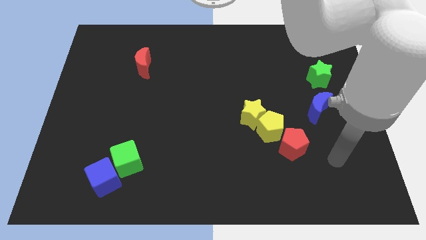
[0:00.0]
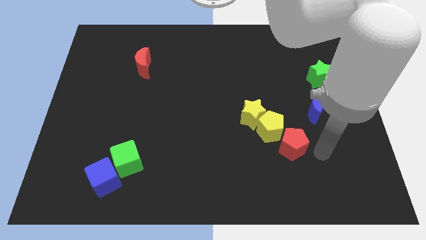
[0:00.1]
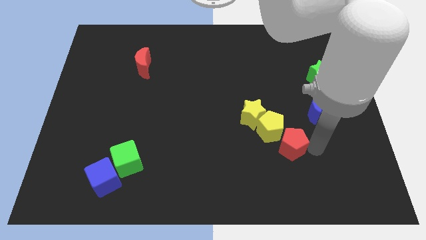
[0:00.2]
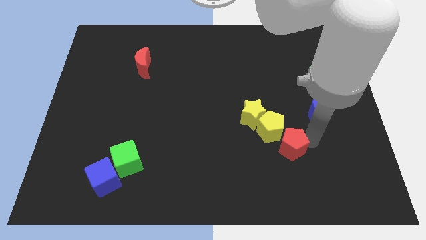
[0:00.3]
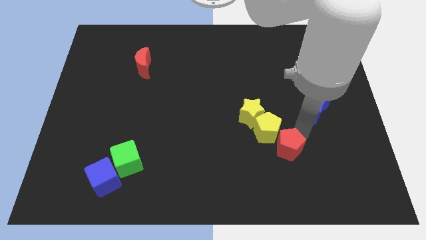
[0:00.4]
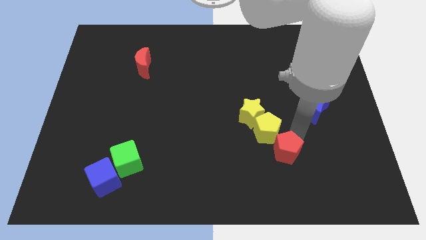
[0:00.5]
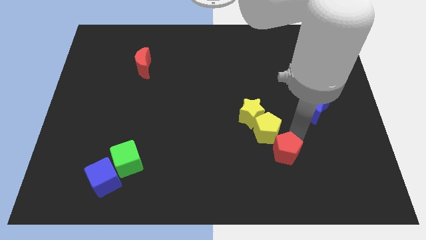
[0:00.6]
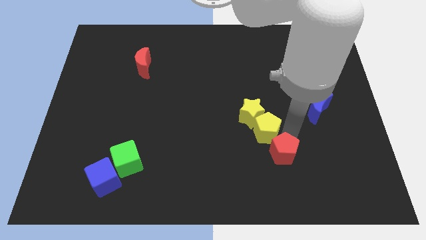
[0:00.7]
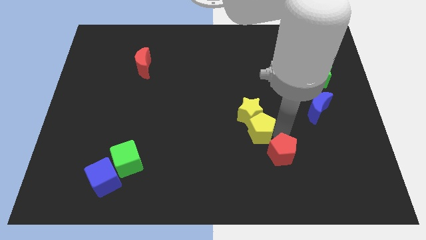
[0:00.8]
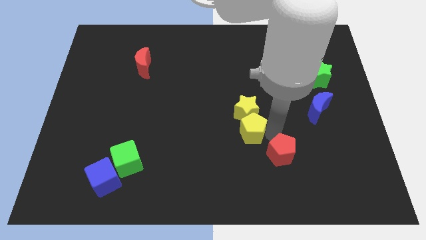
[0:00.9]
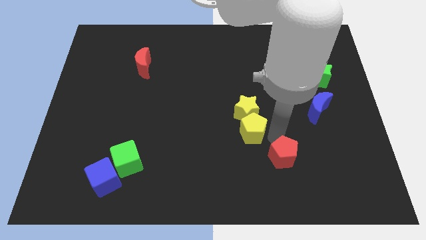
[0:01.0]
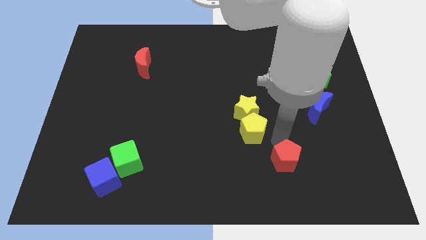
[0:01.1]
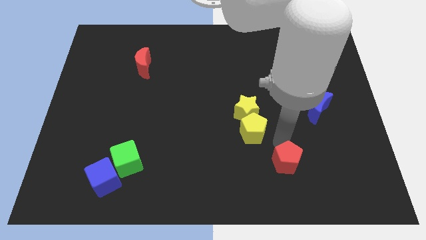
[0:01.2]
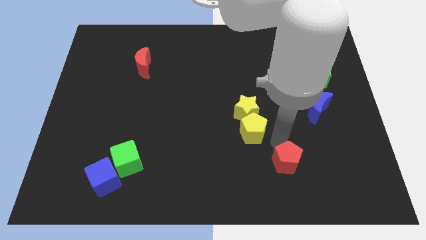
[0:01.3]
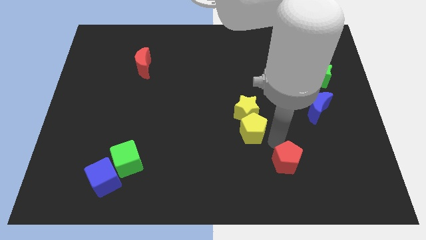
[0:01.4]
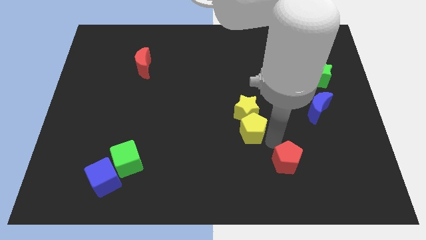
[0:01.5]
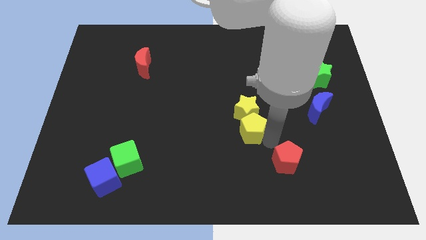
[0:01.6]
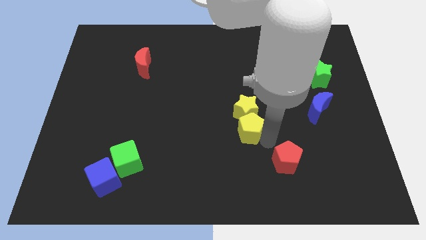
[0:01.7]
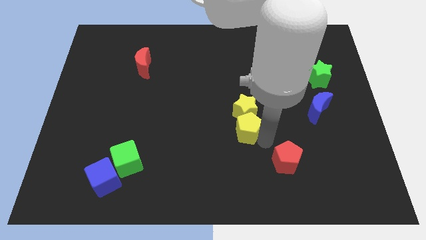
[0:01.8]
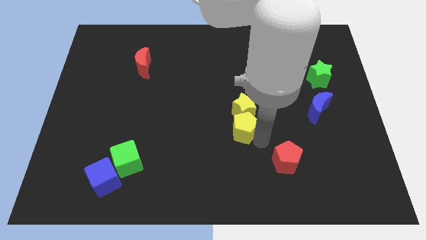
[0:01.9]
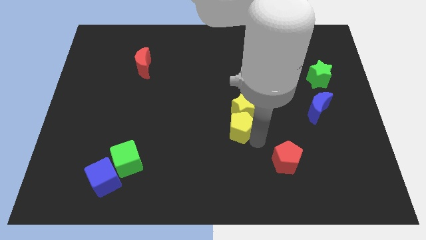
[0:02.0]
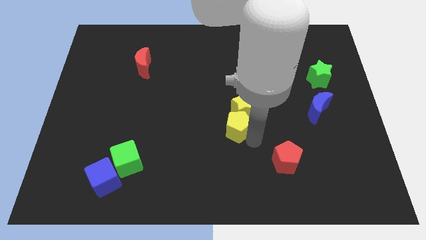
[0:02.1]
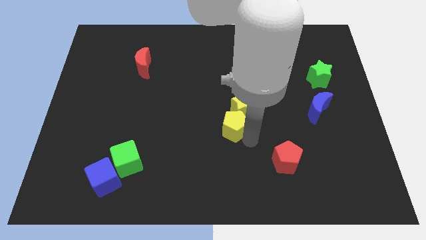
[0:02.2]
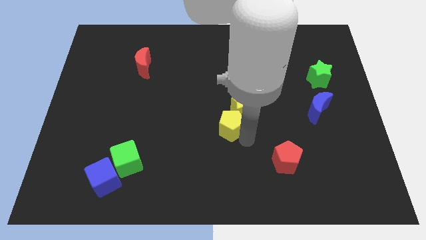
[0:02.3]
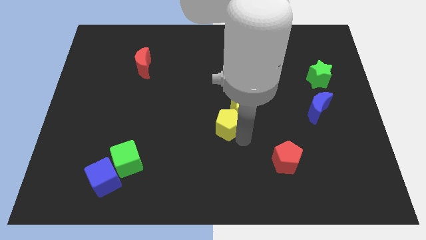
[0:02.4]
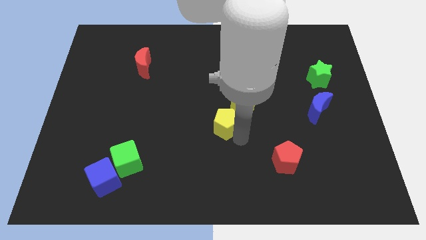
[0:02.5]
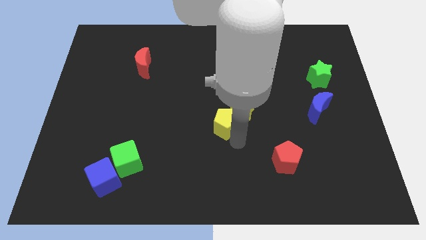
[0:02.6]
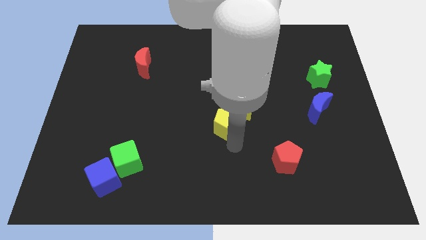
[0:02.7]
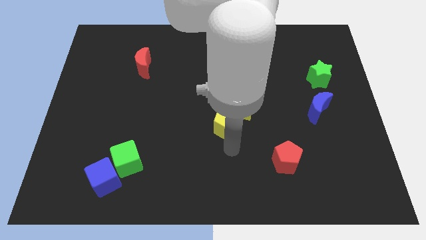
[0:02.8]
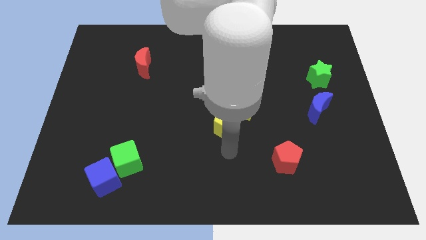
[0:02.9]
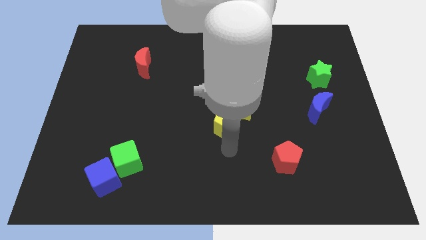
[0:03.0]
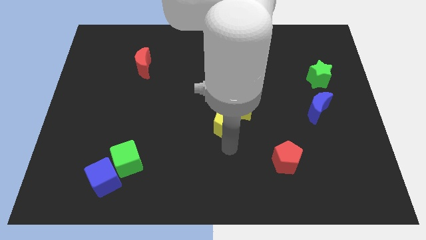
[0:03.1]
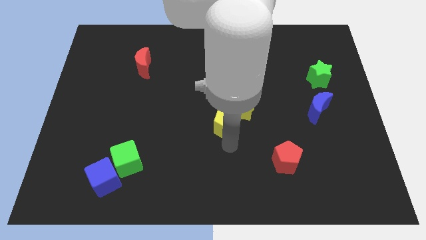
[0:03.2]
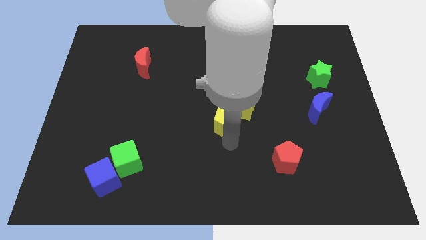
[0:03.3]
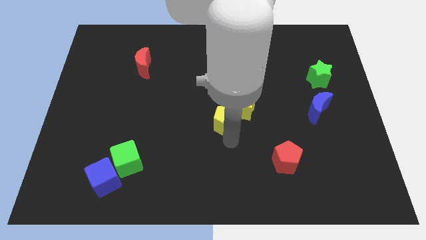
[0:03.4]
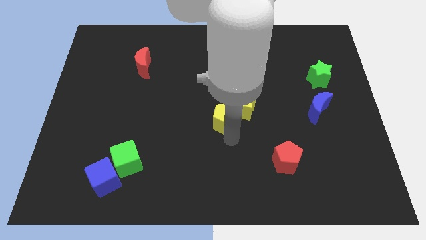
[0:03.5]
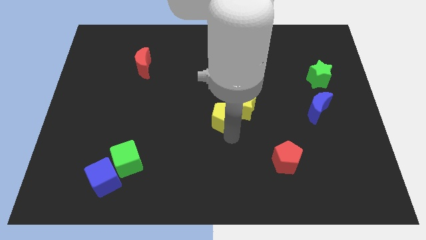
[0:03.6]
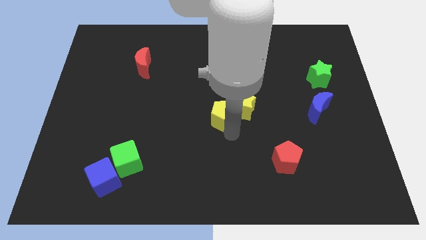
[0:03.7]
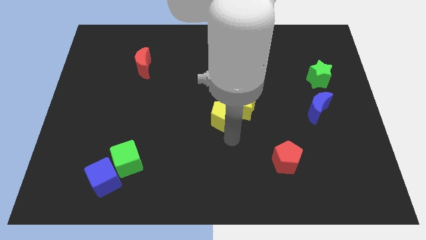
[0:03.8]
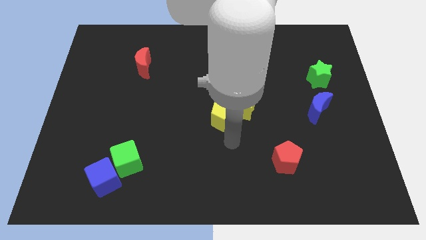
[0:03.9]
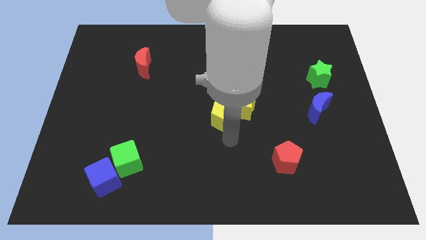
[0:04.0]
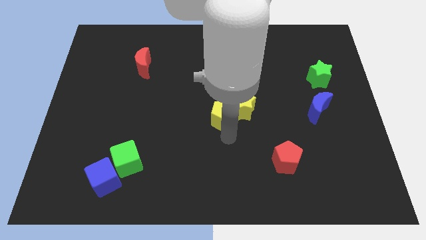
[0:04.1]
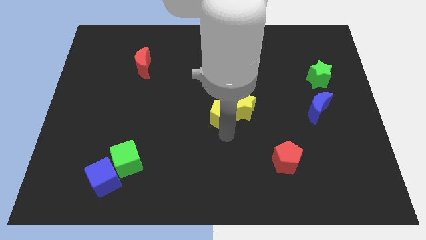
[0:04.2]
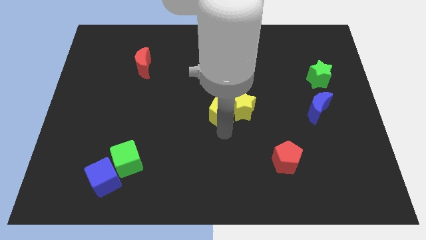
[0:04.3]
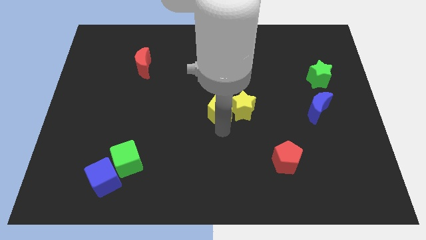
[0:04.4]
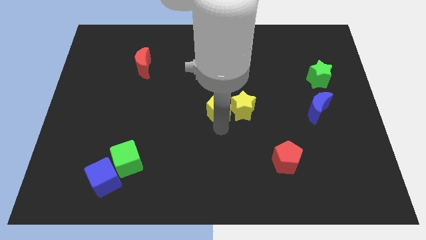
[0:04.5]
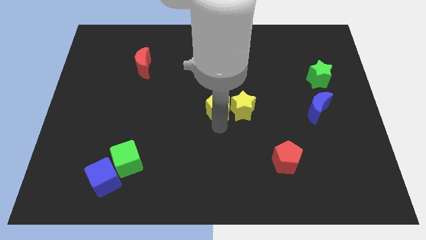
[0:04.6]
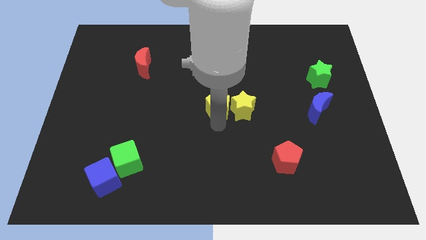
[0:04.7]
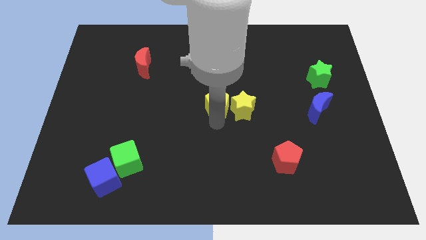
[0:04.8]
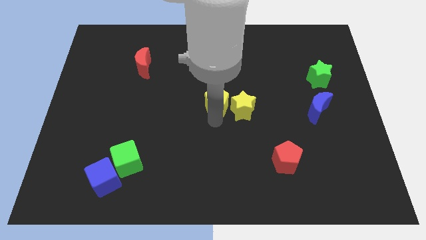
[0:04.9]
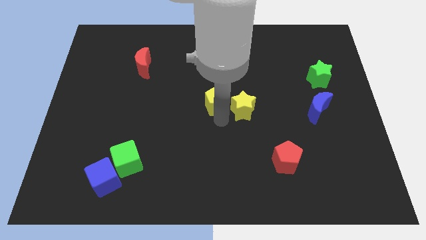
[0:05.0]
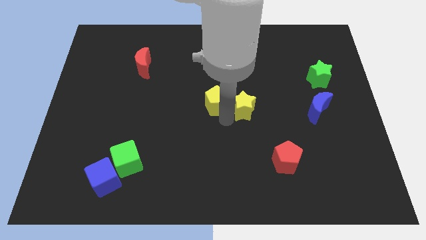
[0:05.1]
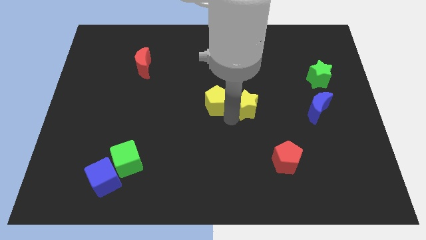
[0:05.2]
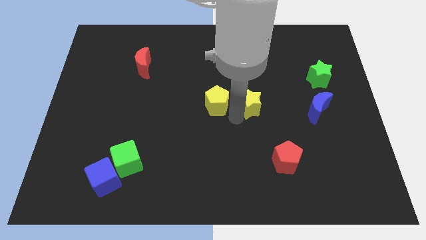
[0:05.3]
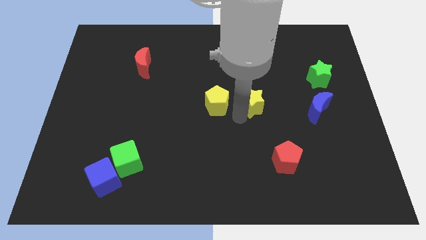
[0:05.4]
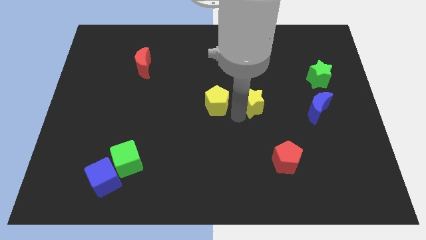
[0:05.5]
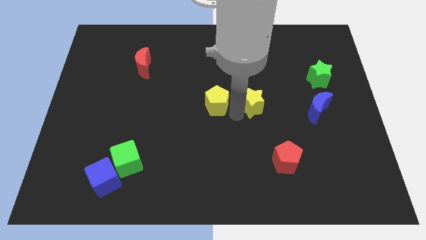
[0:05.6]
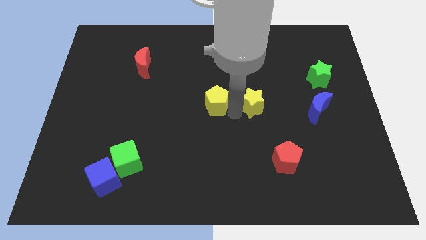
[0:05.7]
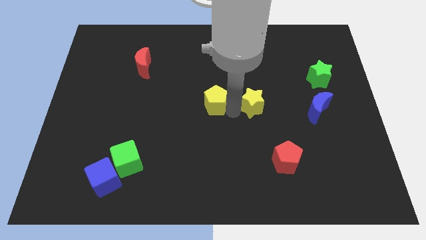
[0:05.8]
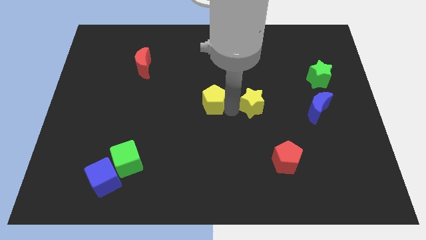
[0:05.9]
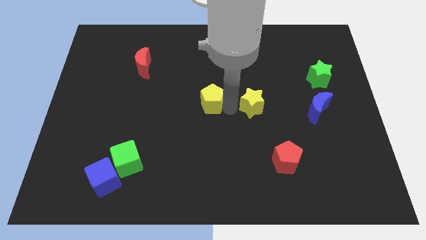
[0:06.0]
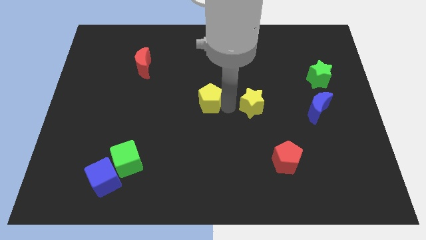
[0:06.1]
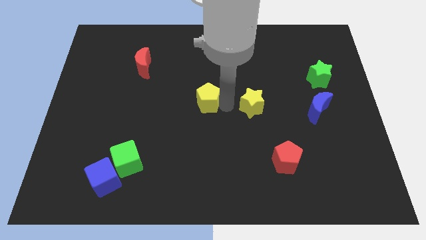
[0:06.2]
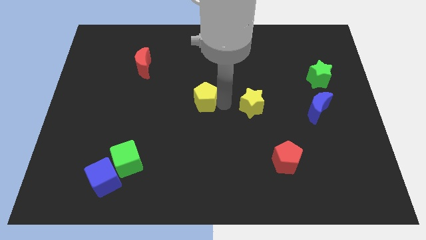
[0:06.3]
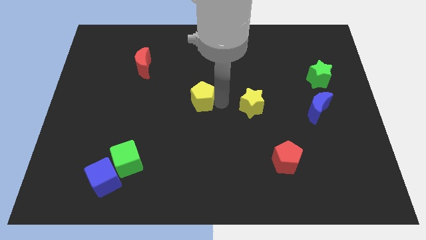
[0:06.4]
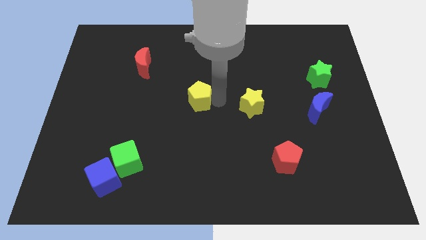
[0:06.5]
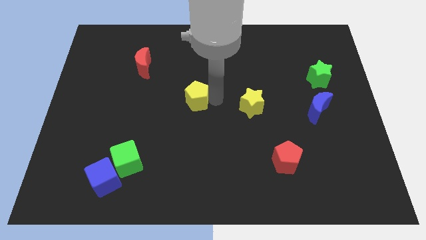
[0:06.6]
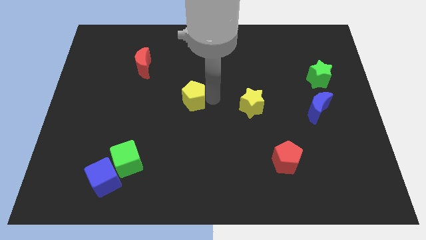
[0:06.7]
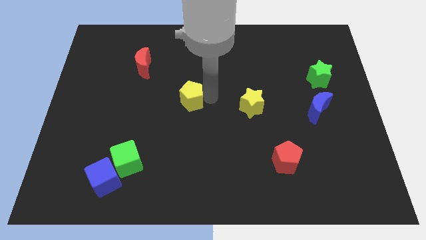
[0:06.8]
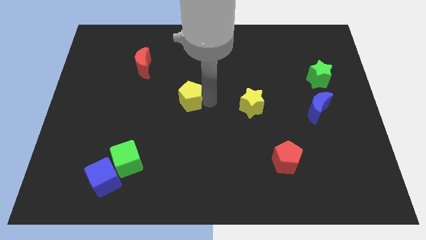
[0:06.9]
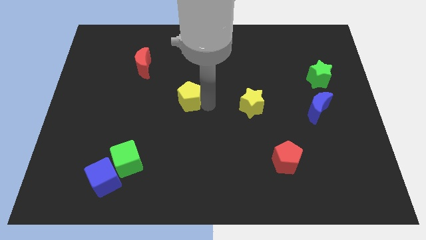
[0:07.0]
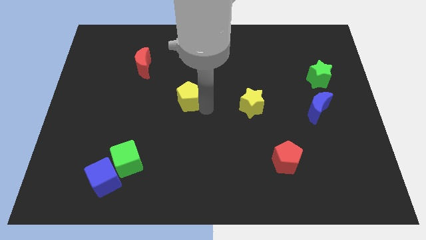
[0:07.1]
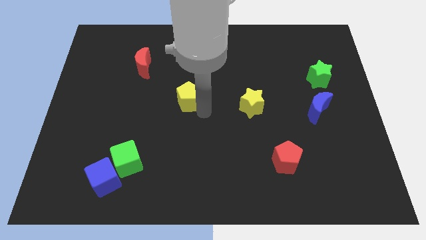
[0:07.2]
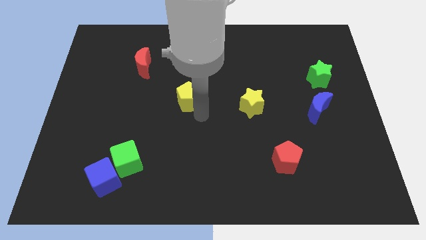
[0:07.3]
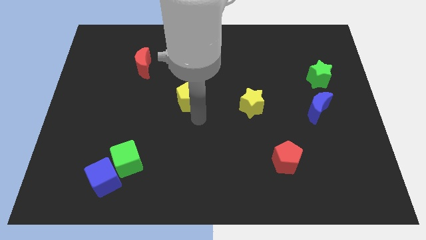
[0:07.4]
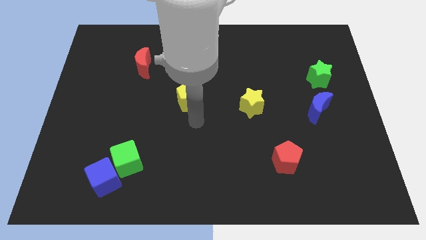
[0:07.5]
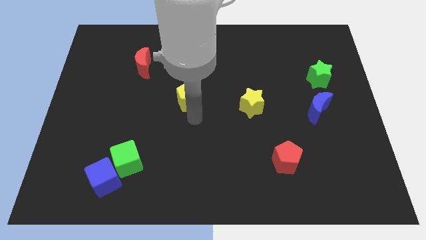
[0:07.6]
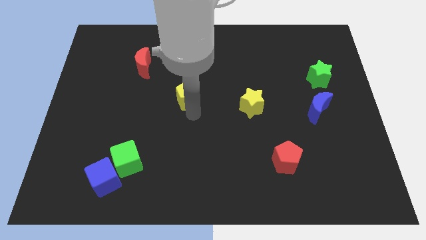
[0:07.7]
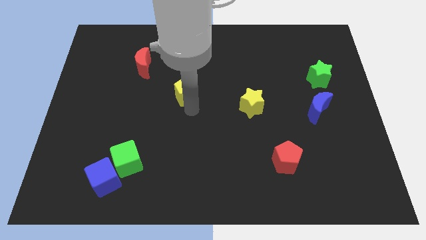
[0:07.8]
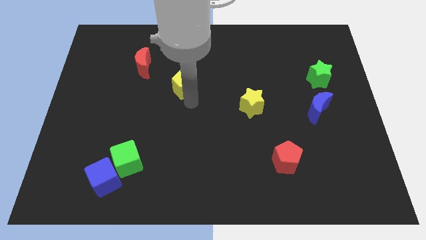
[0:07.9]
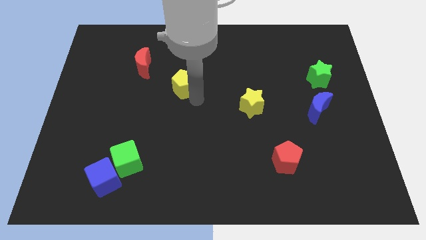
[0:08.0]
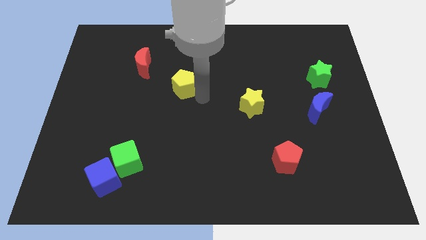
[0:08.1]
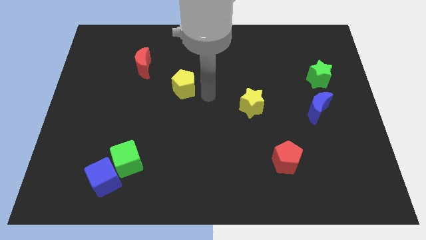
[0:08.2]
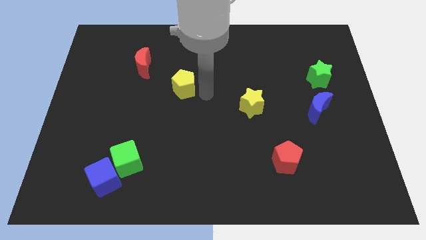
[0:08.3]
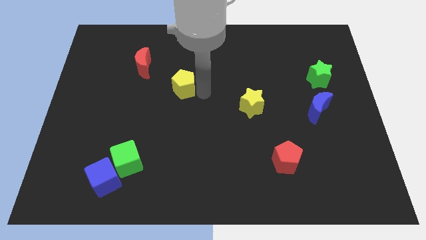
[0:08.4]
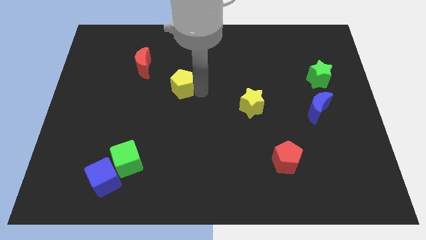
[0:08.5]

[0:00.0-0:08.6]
put the yellow pentagon diagonally down and to the right of the red moon
